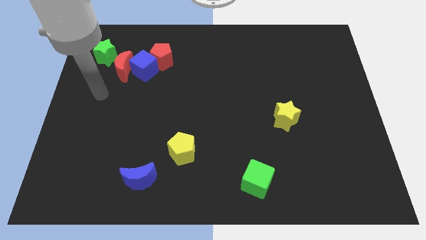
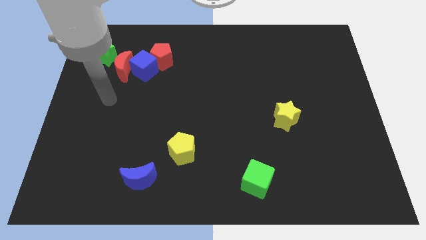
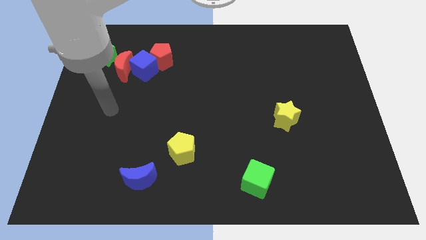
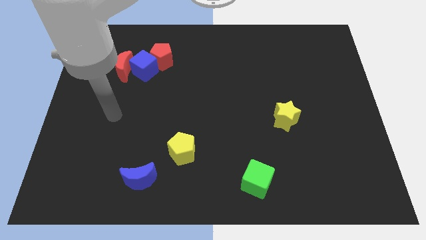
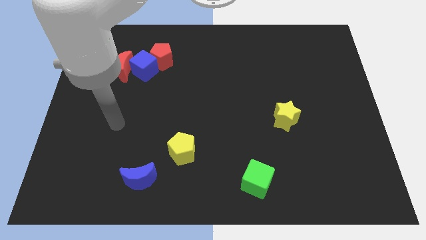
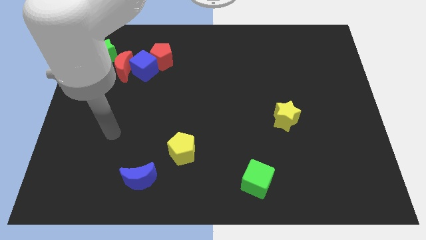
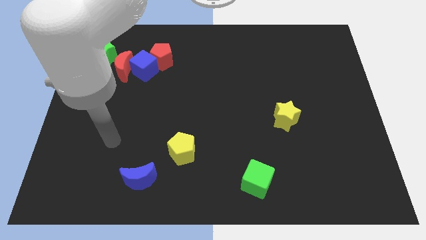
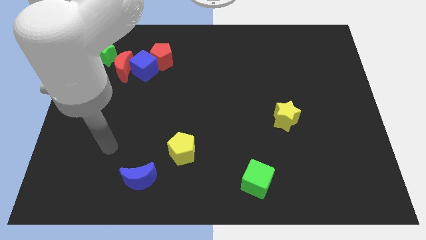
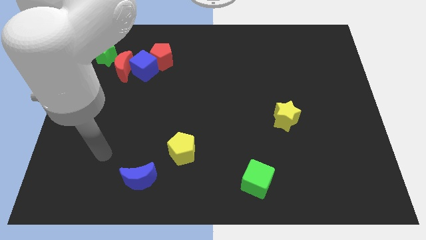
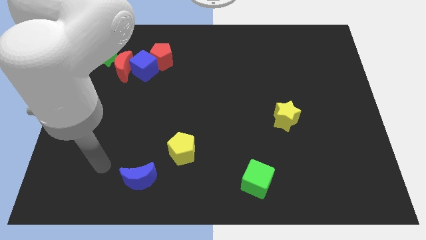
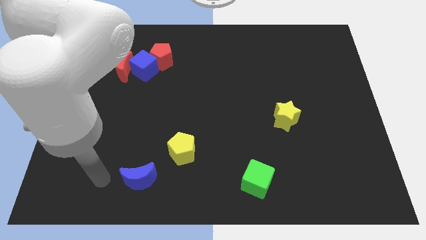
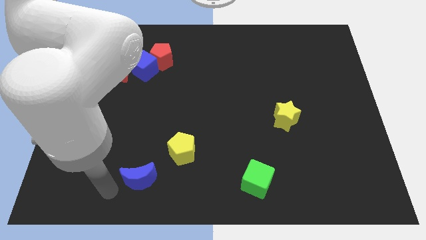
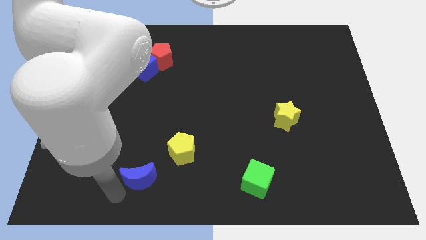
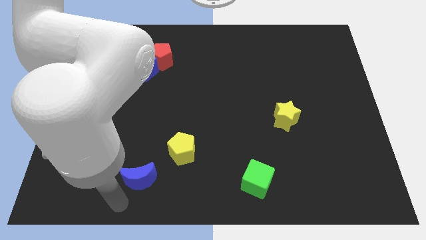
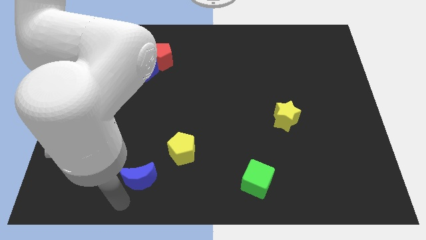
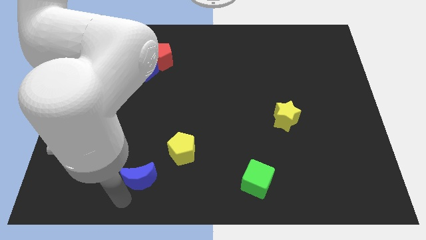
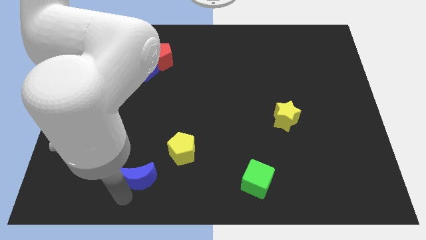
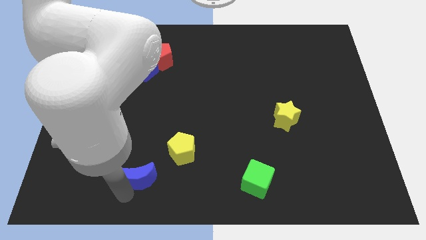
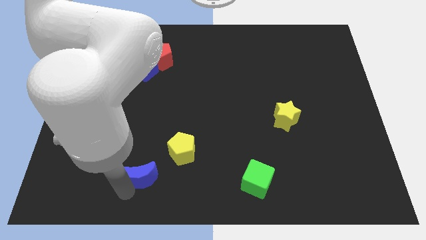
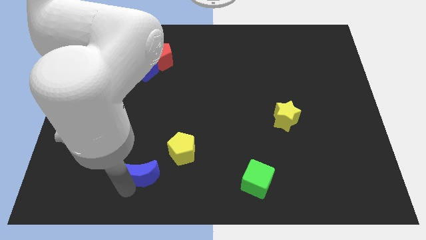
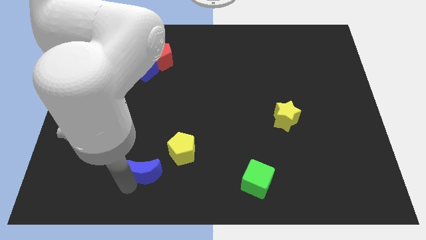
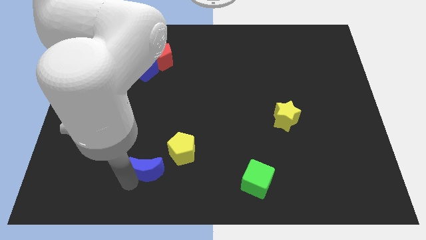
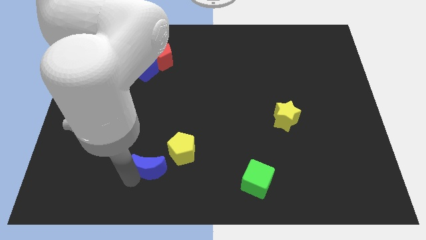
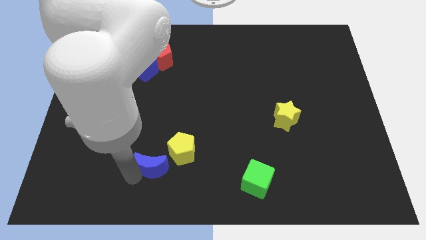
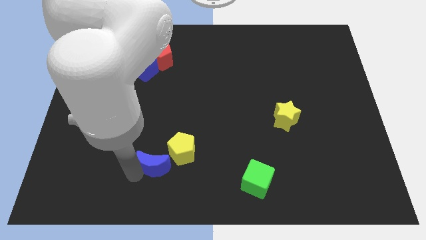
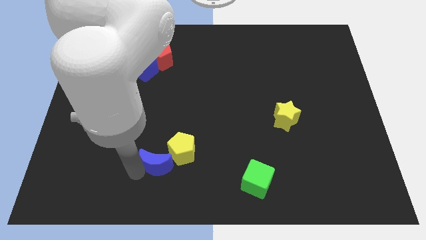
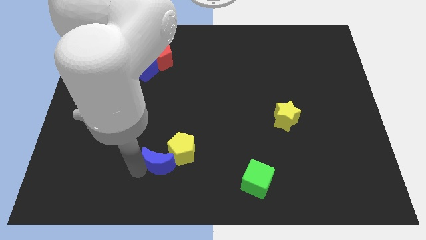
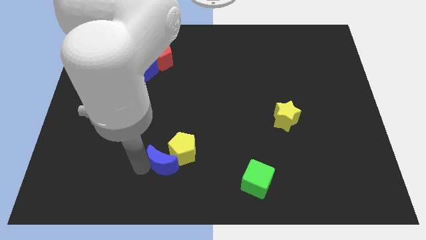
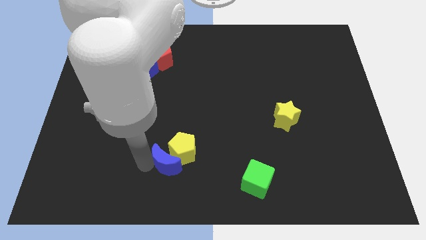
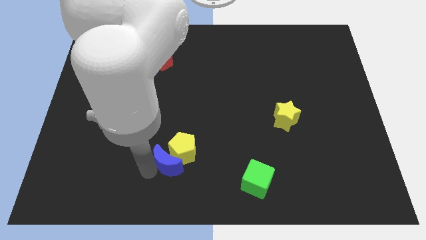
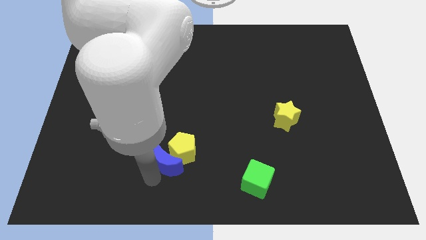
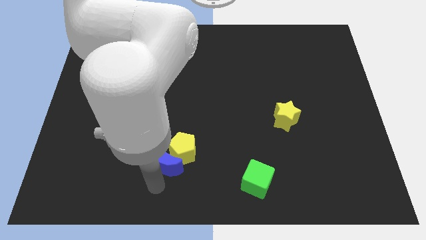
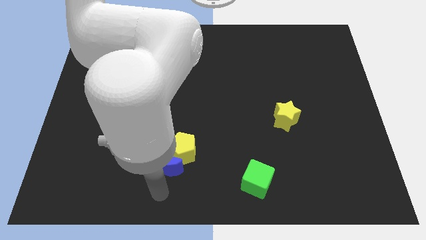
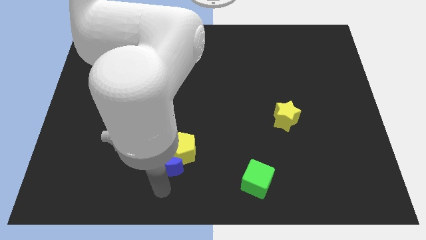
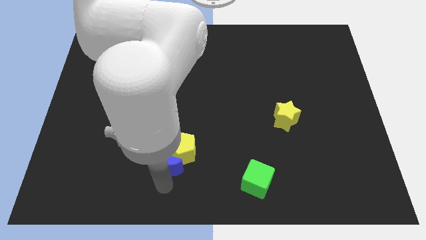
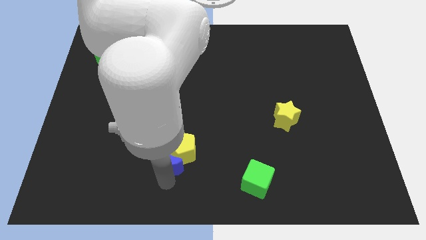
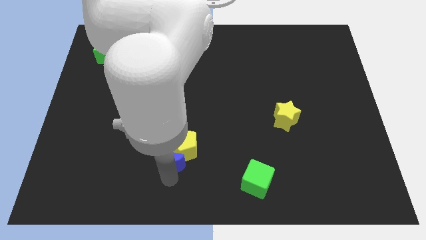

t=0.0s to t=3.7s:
slightly push the blue moon up and right

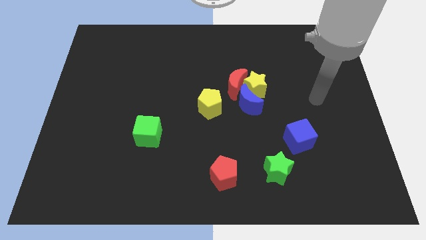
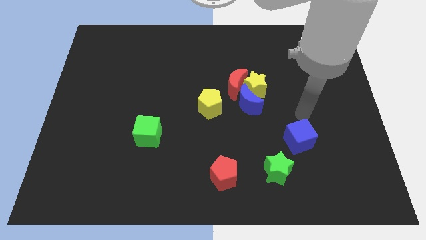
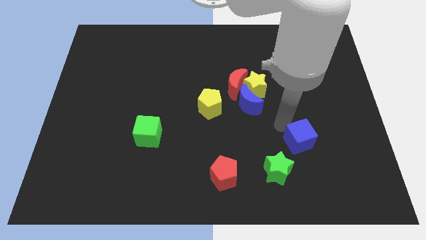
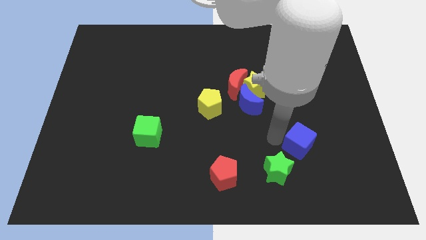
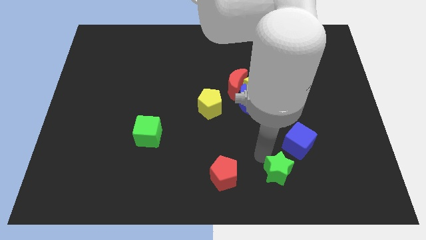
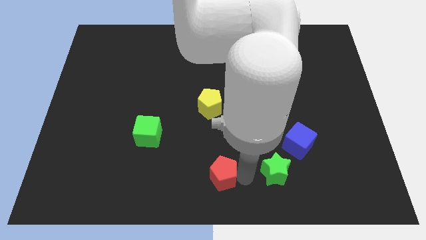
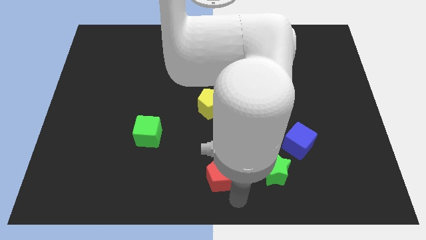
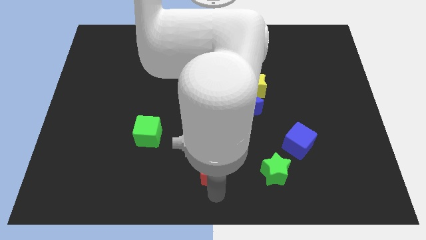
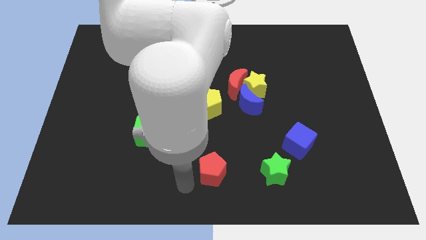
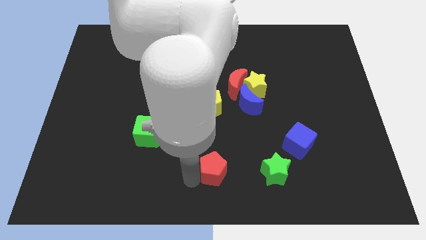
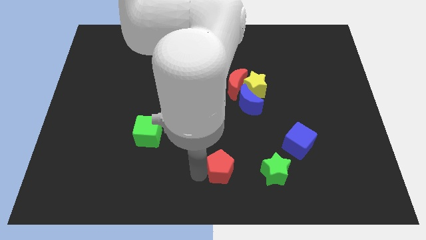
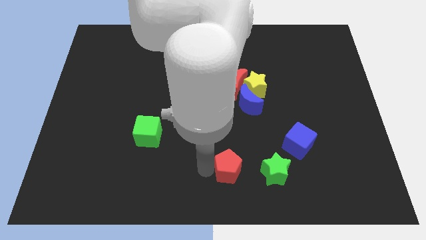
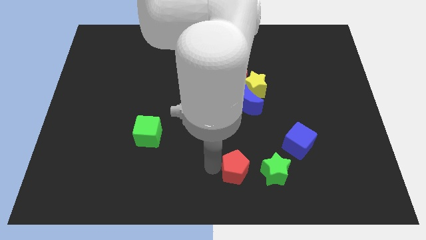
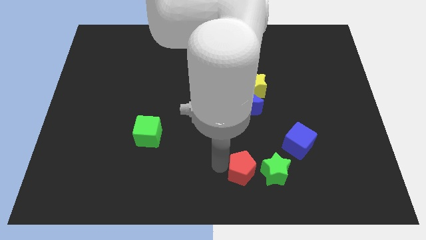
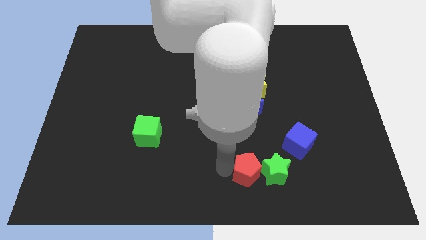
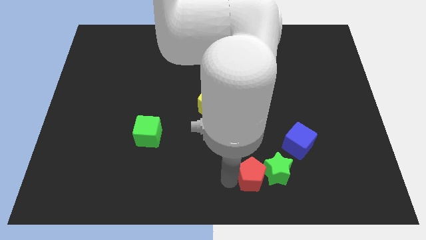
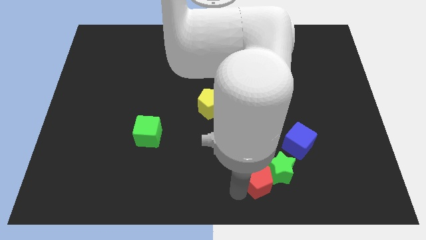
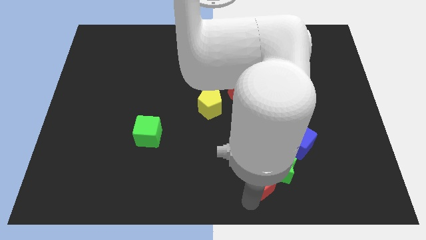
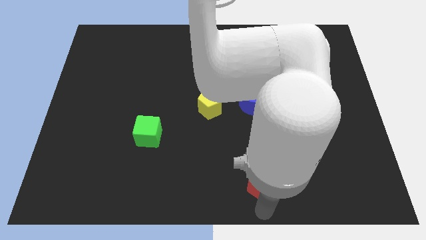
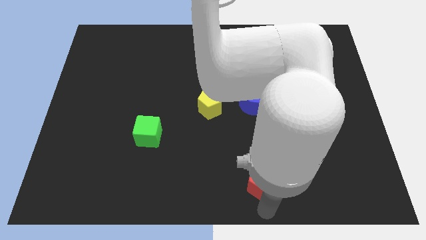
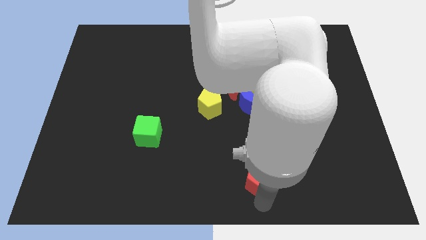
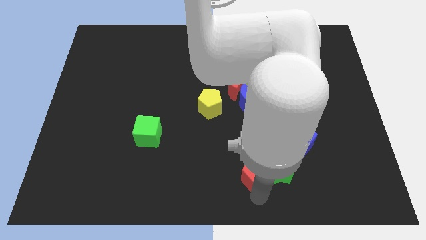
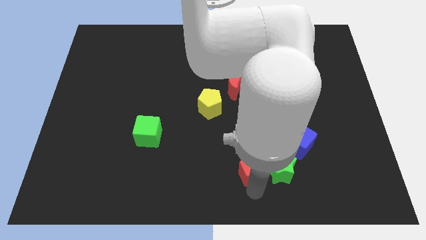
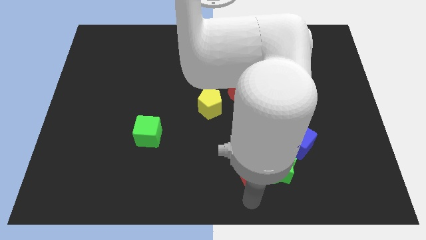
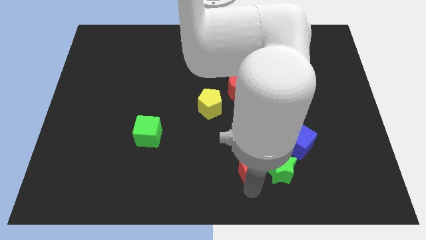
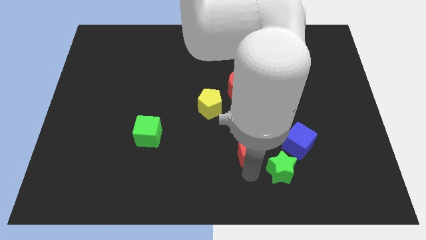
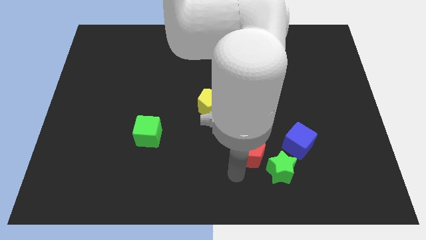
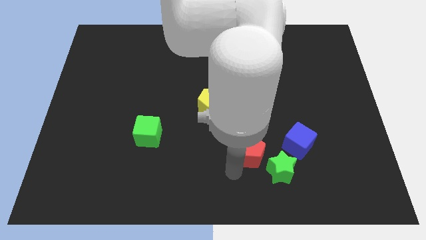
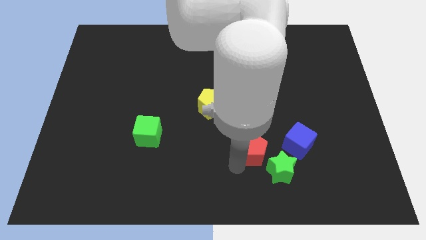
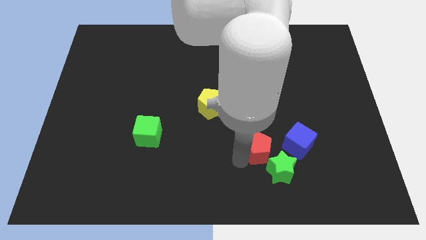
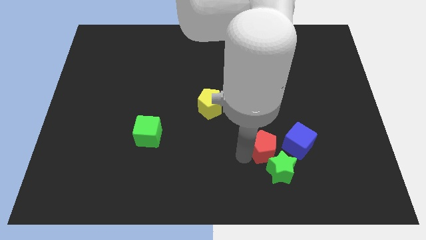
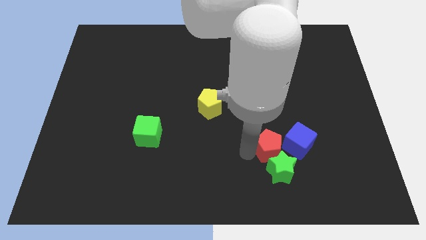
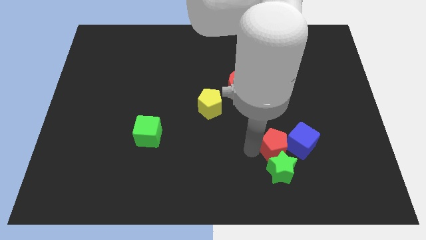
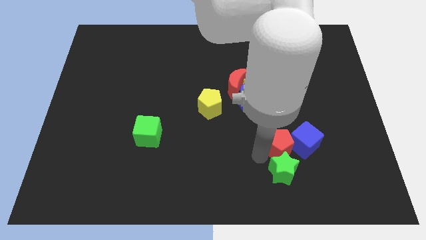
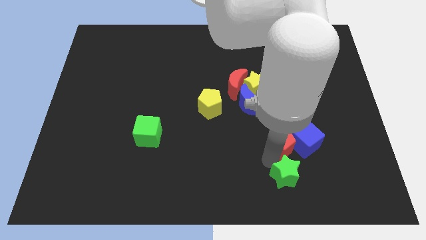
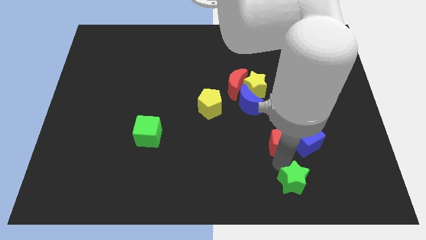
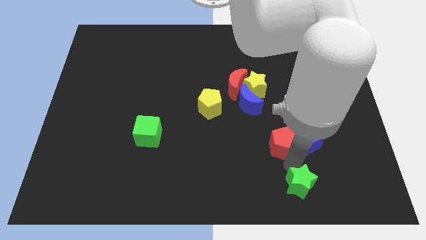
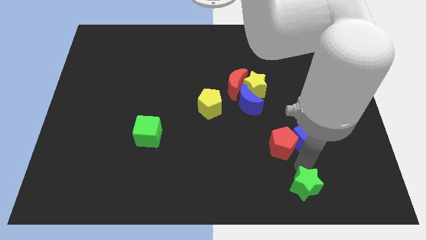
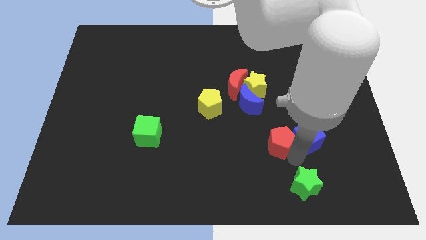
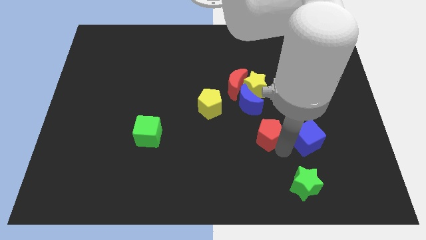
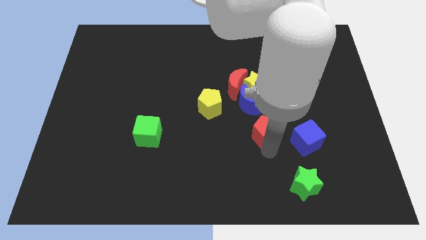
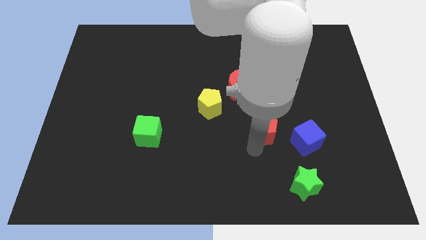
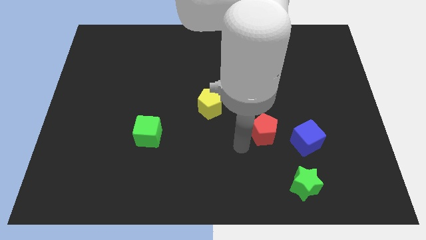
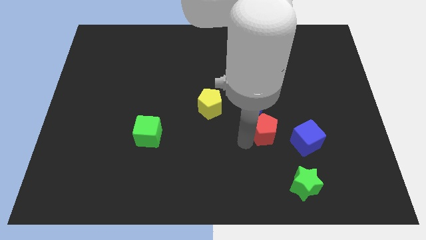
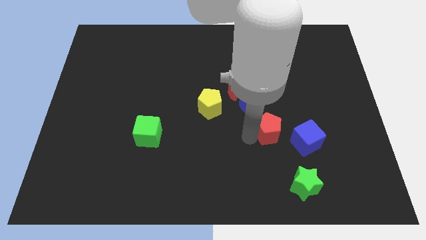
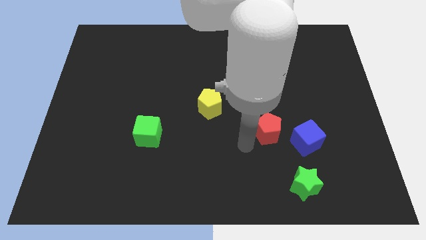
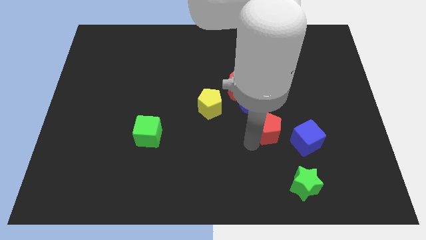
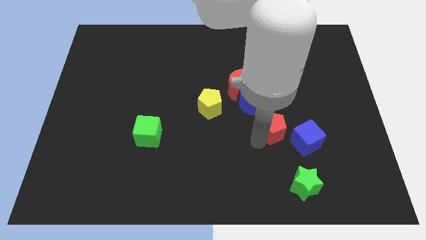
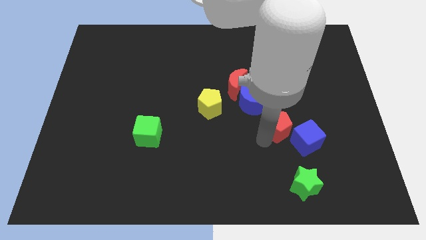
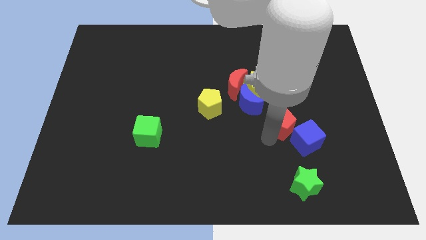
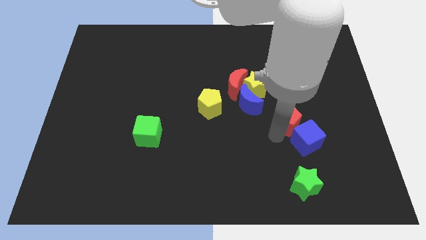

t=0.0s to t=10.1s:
slide the red pentagon diagonally up and right
